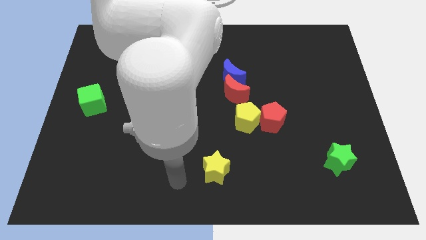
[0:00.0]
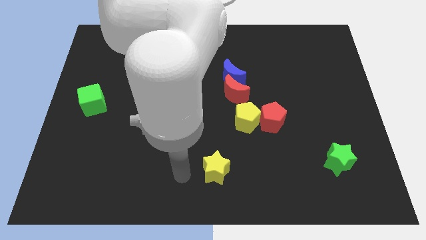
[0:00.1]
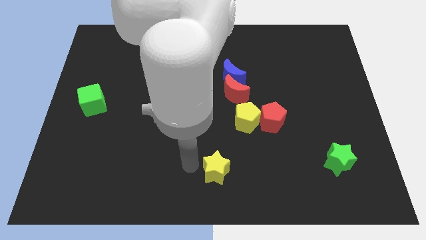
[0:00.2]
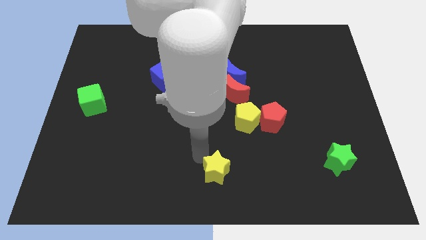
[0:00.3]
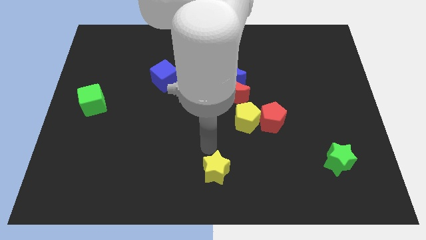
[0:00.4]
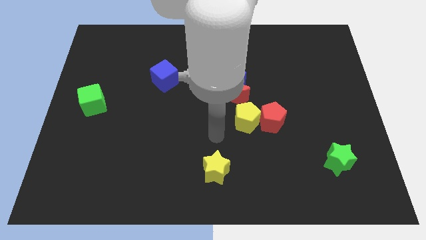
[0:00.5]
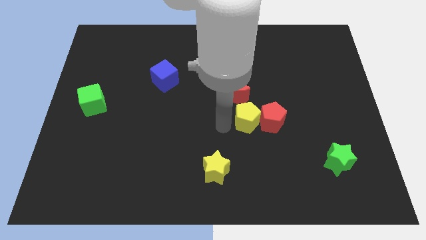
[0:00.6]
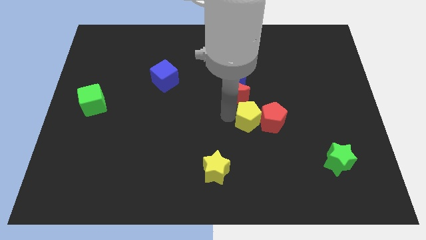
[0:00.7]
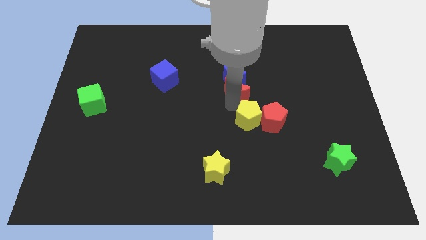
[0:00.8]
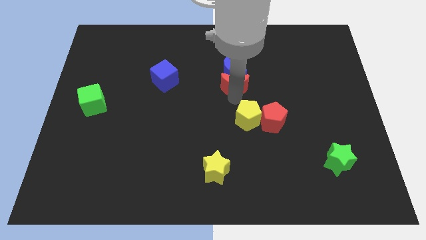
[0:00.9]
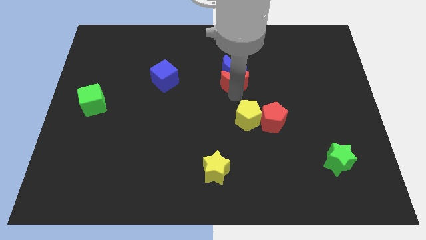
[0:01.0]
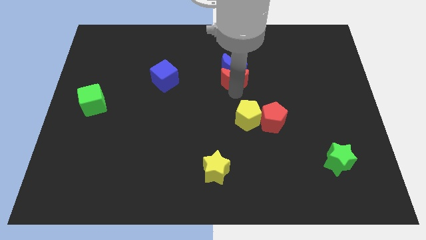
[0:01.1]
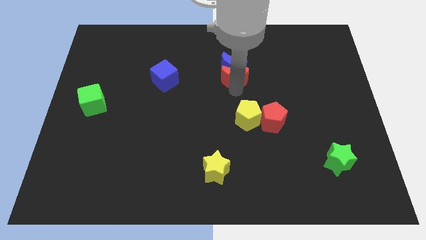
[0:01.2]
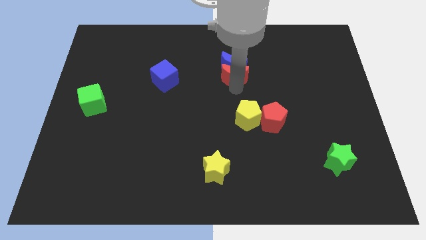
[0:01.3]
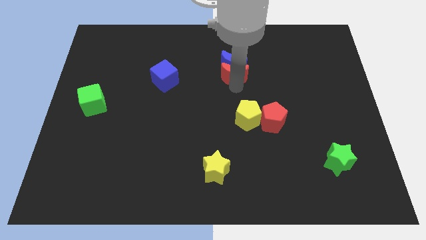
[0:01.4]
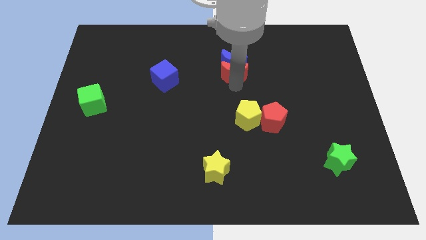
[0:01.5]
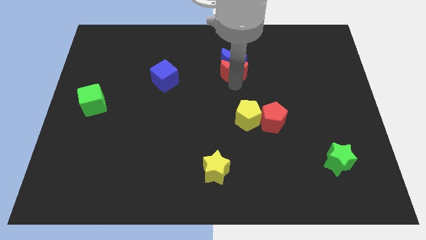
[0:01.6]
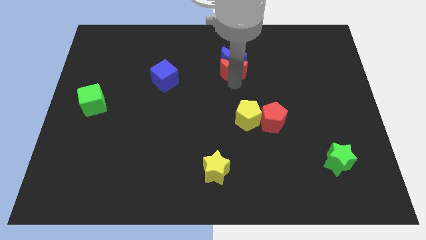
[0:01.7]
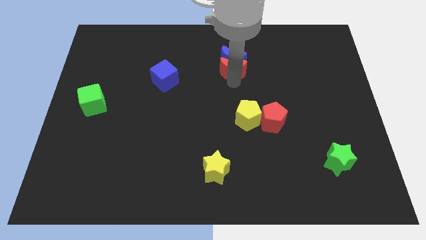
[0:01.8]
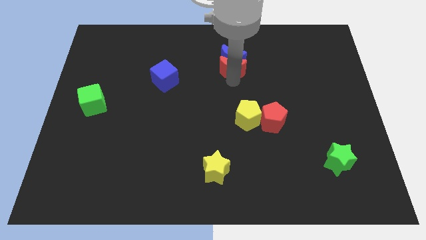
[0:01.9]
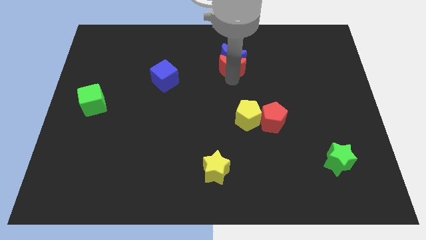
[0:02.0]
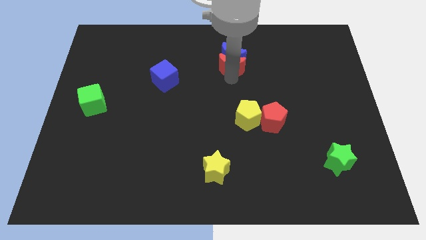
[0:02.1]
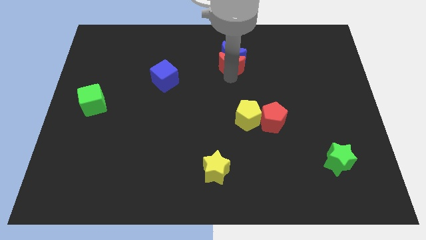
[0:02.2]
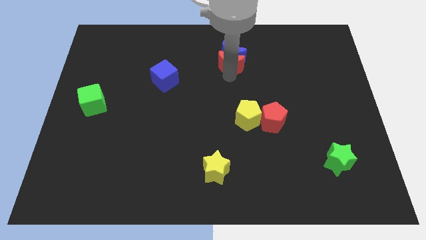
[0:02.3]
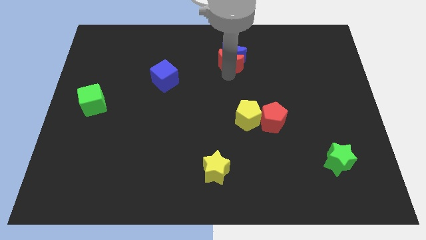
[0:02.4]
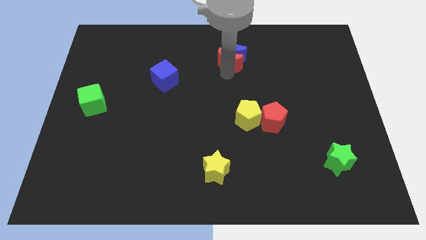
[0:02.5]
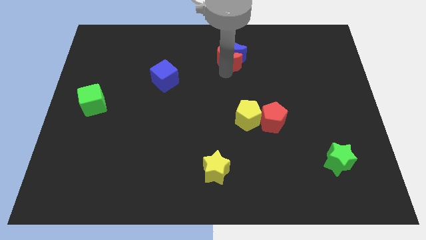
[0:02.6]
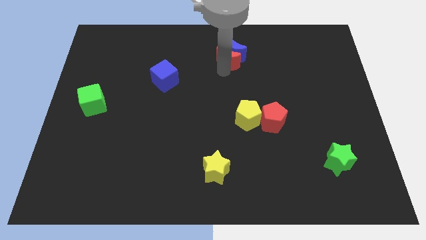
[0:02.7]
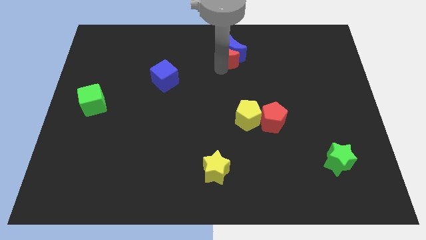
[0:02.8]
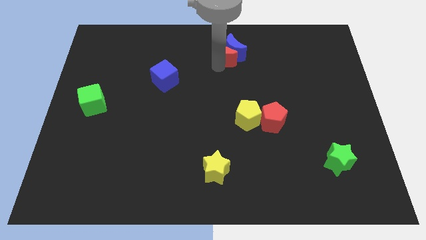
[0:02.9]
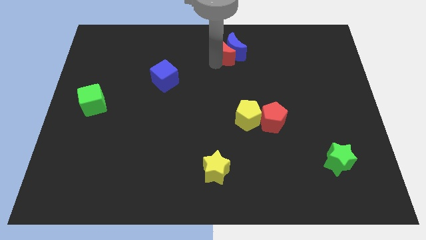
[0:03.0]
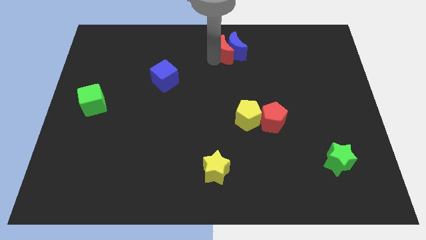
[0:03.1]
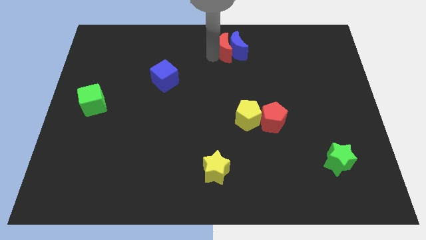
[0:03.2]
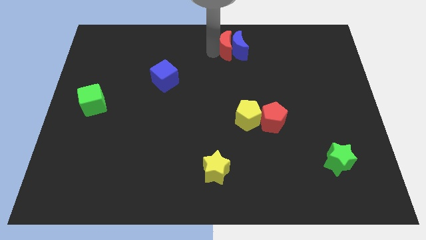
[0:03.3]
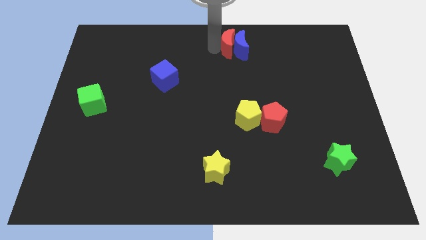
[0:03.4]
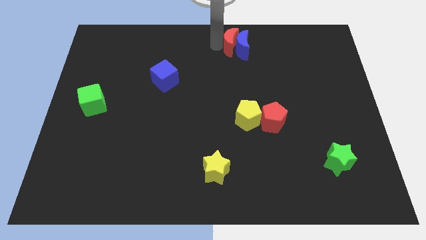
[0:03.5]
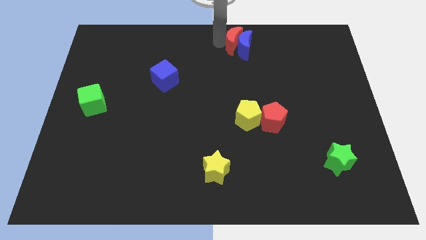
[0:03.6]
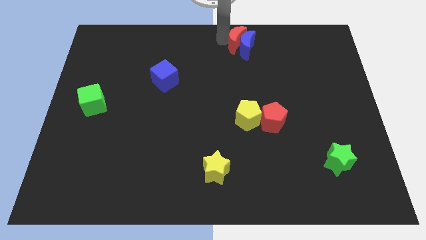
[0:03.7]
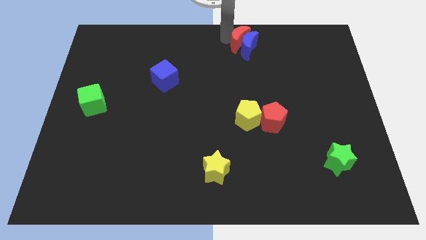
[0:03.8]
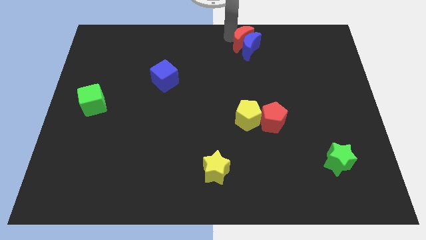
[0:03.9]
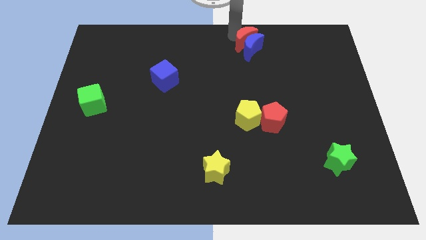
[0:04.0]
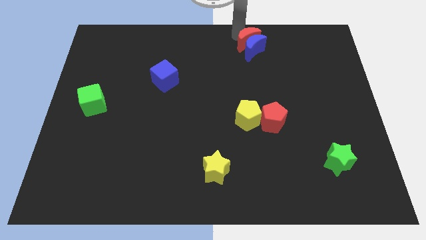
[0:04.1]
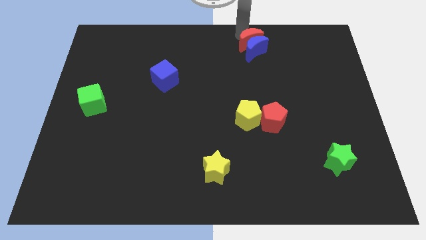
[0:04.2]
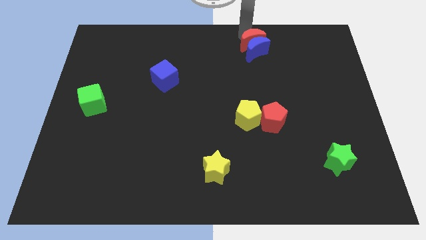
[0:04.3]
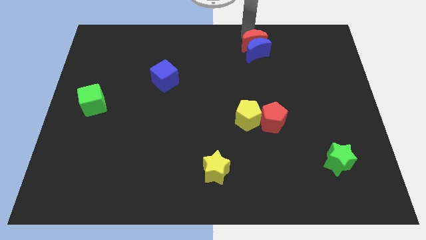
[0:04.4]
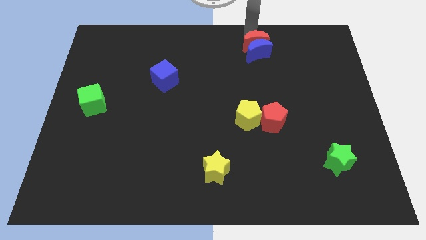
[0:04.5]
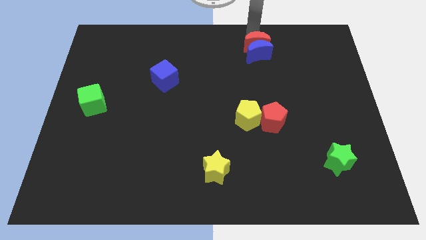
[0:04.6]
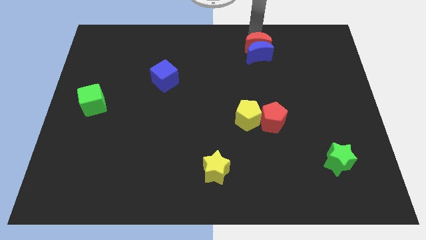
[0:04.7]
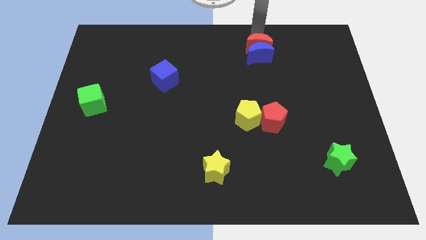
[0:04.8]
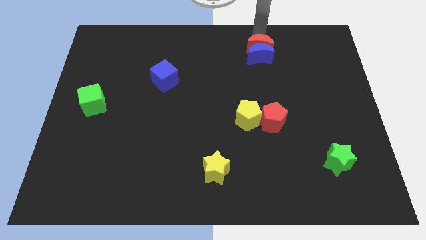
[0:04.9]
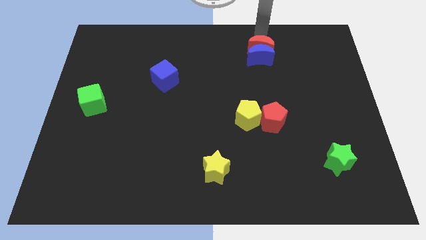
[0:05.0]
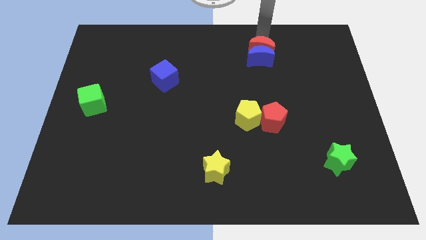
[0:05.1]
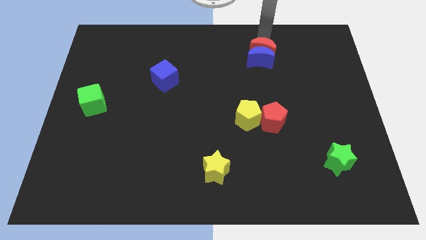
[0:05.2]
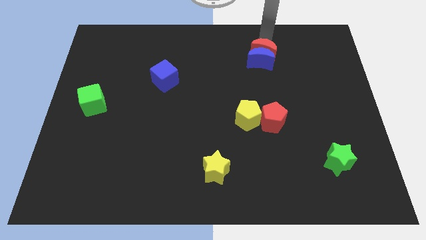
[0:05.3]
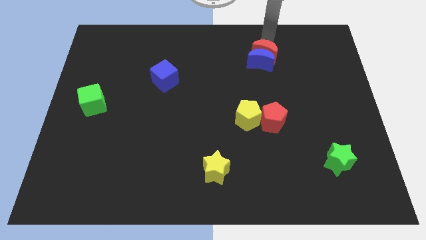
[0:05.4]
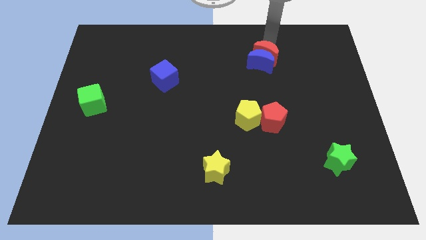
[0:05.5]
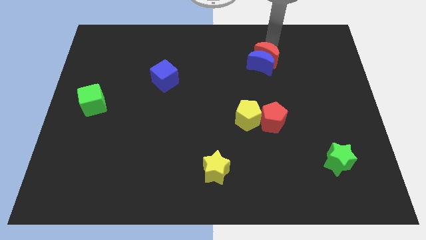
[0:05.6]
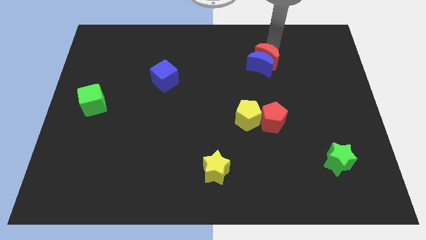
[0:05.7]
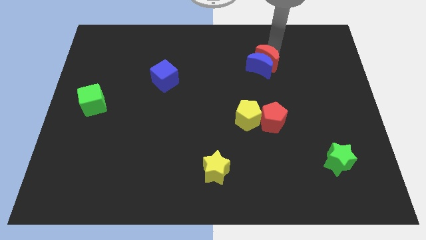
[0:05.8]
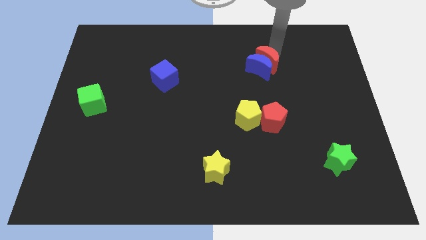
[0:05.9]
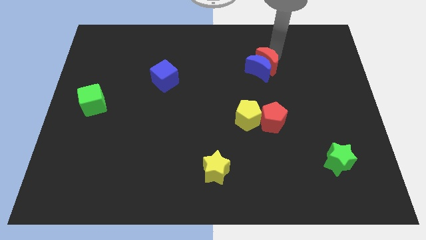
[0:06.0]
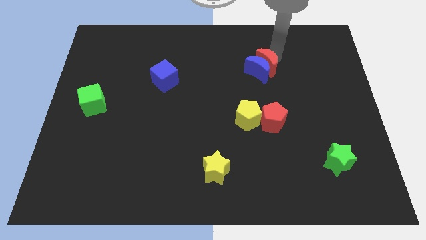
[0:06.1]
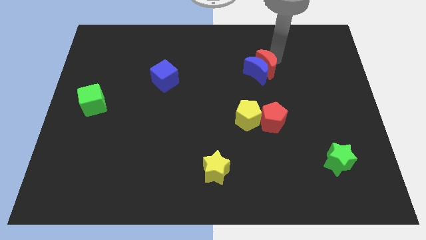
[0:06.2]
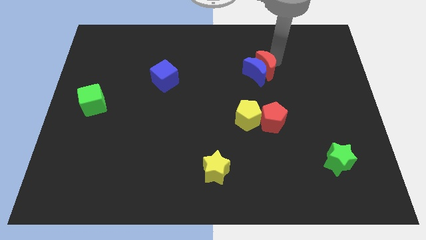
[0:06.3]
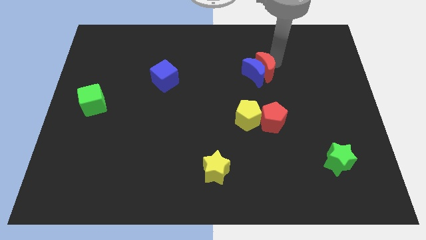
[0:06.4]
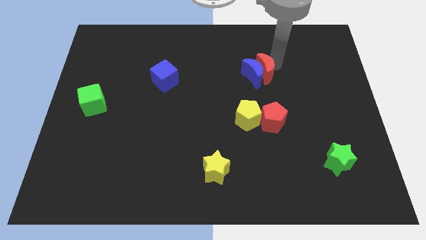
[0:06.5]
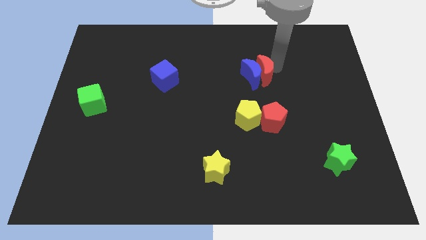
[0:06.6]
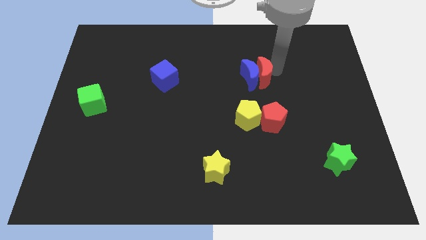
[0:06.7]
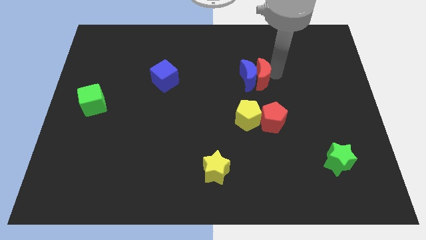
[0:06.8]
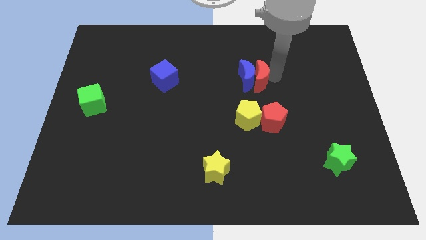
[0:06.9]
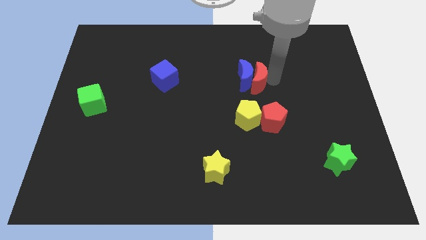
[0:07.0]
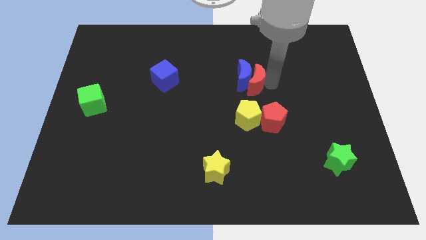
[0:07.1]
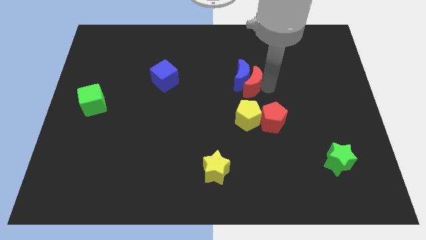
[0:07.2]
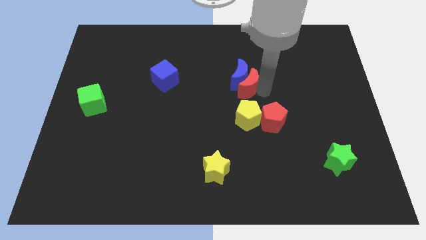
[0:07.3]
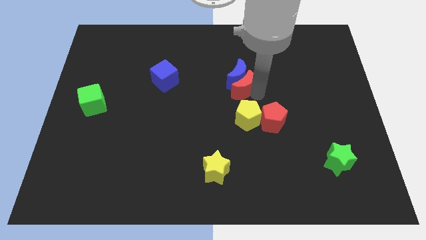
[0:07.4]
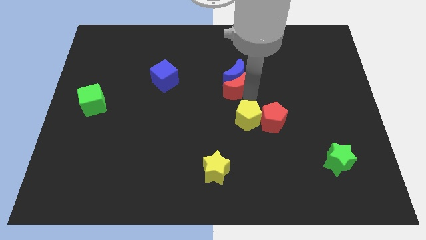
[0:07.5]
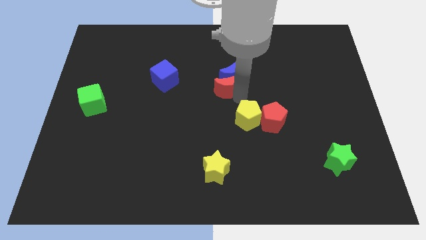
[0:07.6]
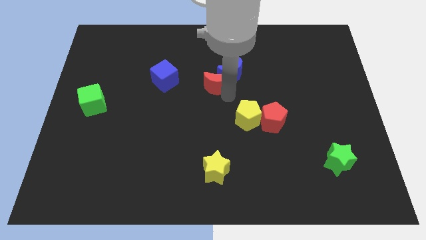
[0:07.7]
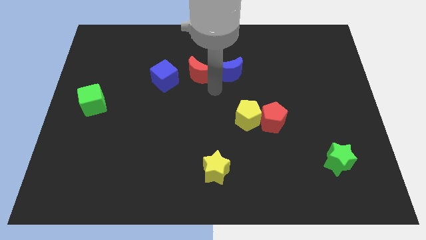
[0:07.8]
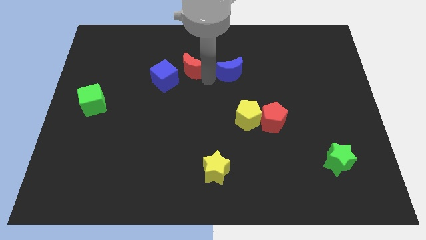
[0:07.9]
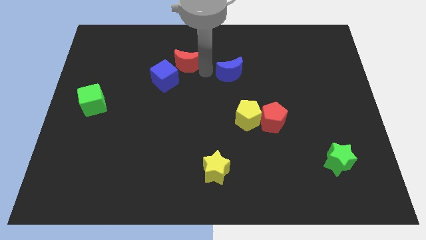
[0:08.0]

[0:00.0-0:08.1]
pull the blue moon apart from the red moon

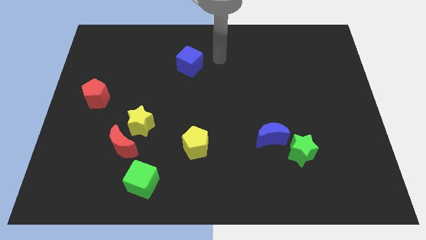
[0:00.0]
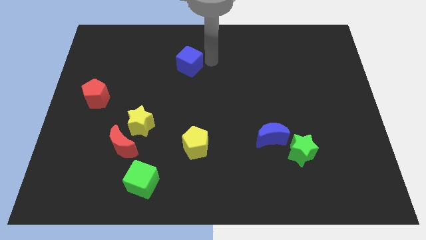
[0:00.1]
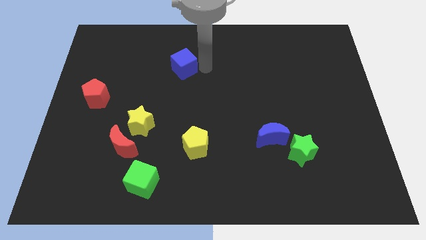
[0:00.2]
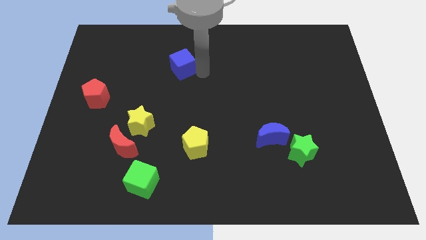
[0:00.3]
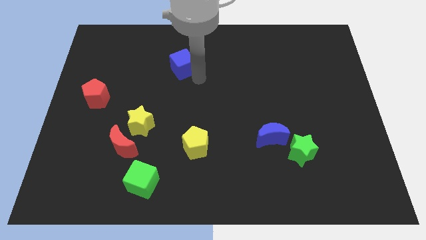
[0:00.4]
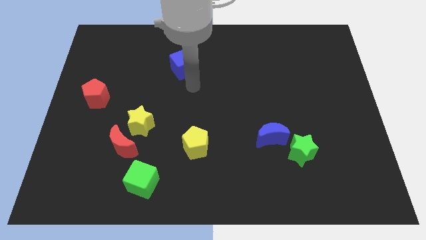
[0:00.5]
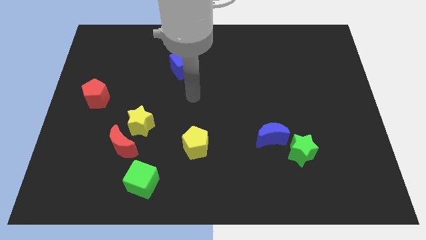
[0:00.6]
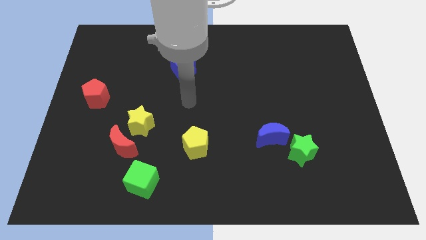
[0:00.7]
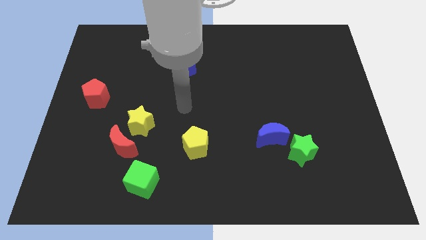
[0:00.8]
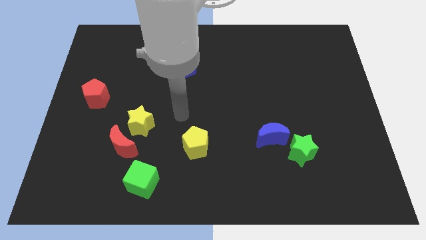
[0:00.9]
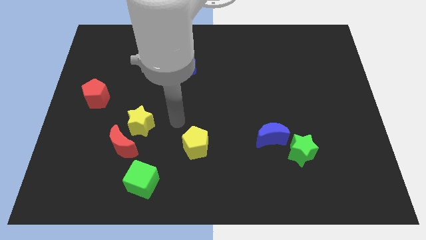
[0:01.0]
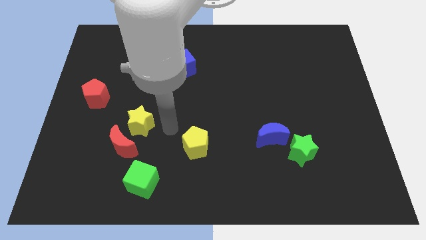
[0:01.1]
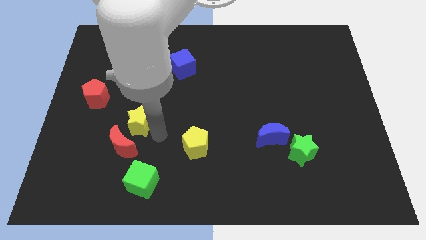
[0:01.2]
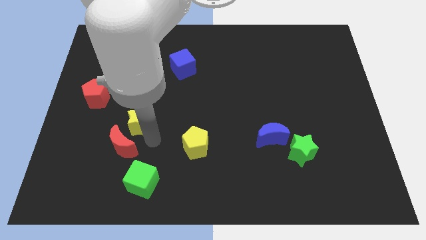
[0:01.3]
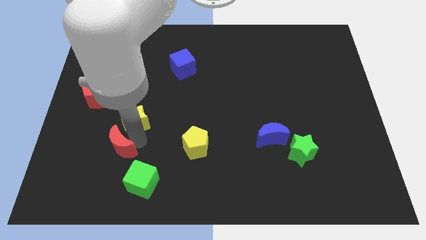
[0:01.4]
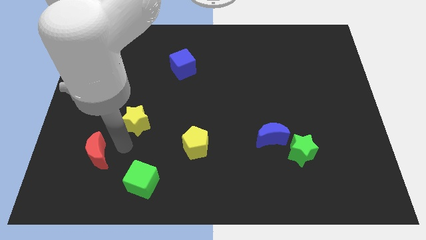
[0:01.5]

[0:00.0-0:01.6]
pull the yellow star apart from the red moon
